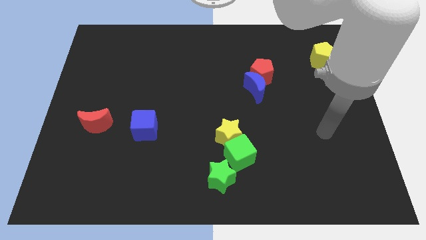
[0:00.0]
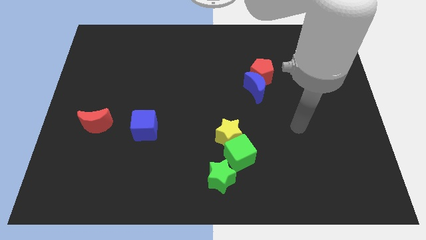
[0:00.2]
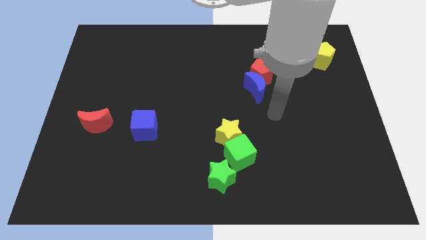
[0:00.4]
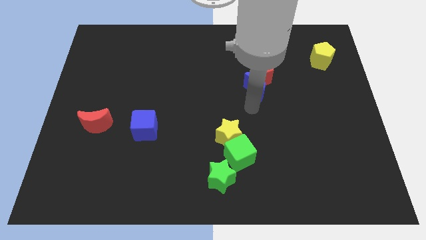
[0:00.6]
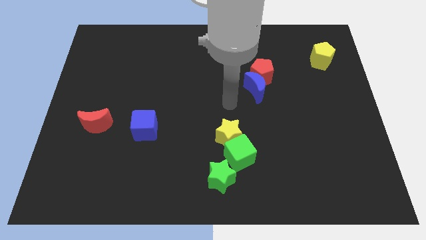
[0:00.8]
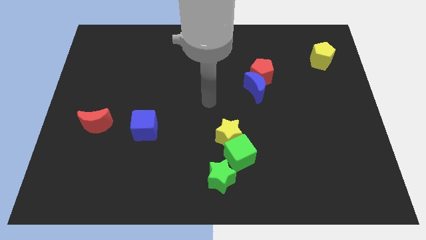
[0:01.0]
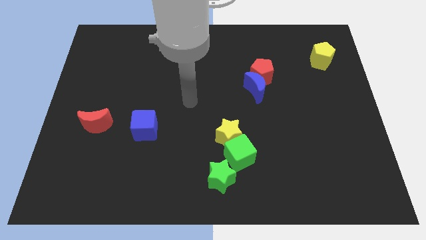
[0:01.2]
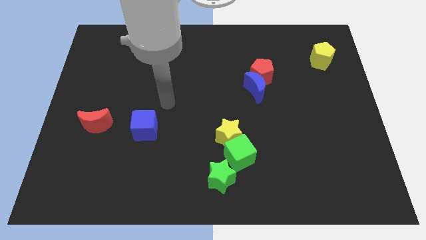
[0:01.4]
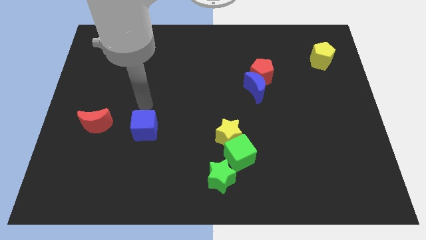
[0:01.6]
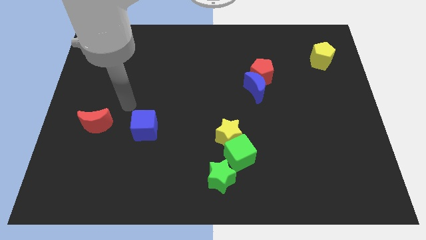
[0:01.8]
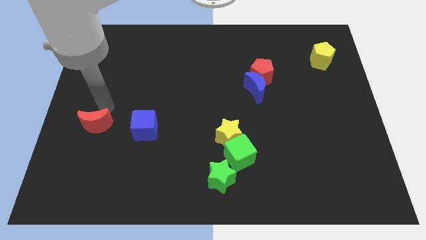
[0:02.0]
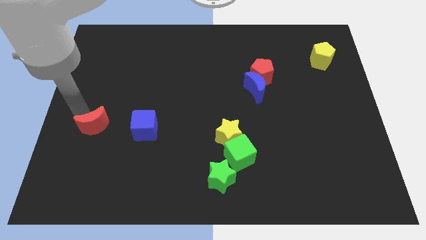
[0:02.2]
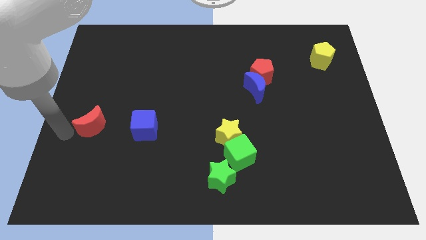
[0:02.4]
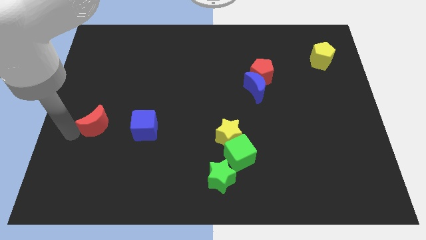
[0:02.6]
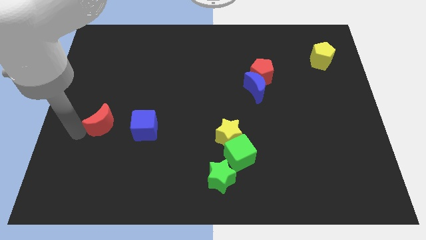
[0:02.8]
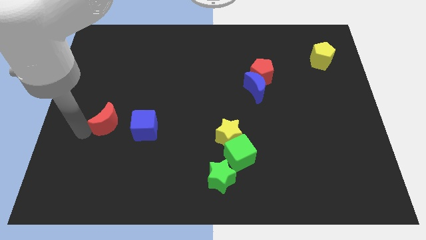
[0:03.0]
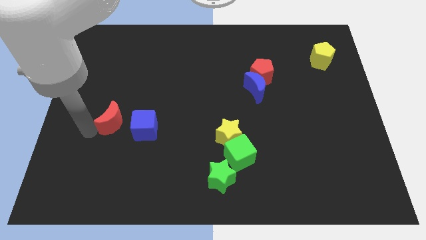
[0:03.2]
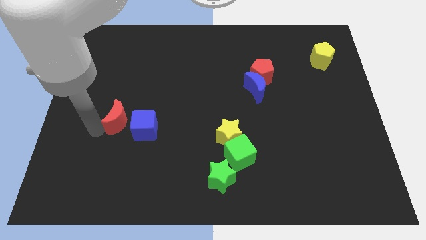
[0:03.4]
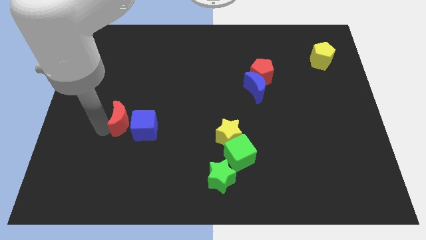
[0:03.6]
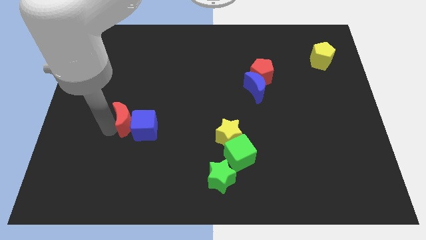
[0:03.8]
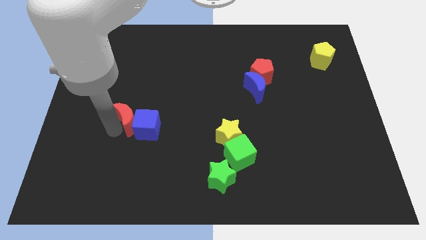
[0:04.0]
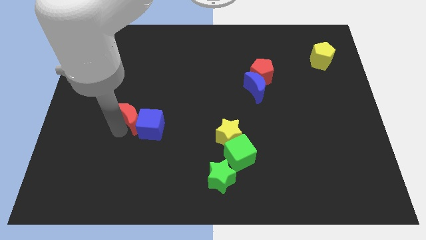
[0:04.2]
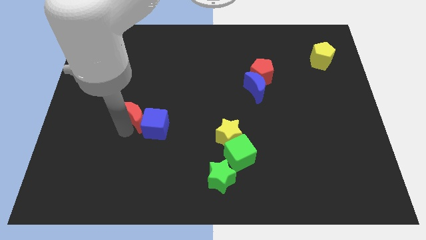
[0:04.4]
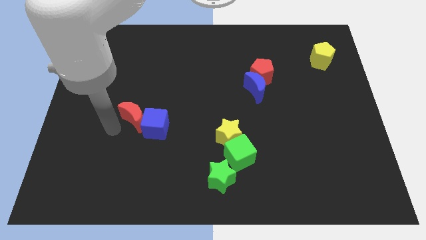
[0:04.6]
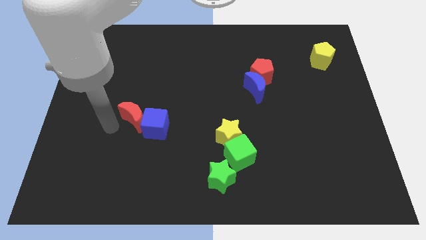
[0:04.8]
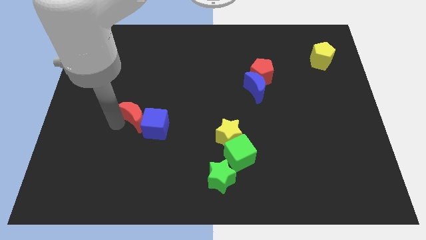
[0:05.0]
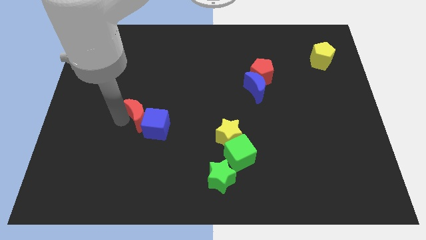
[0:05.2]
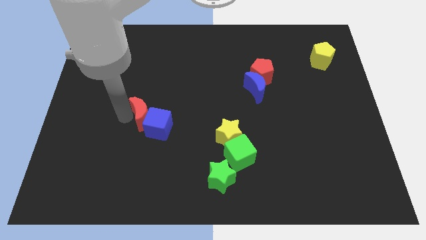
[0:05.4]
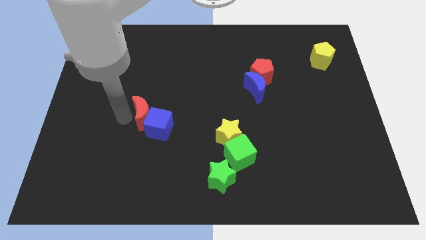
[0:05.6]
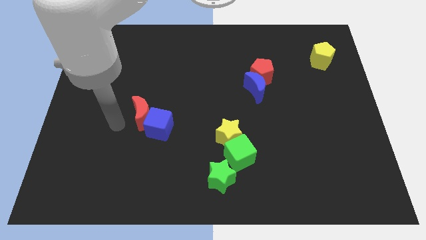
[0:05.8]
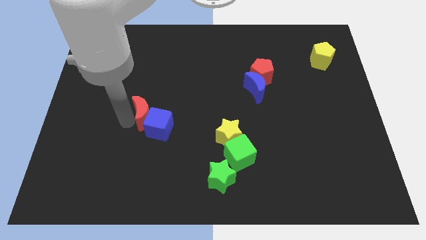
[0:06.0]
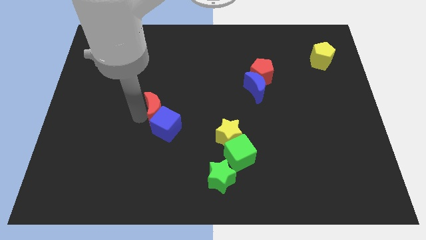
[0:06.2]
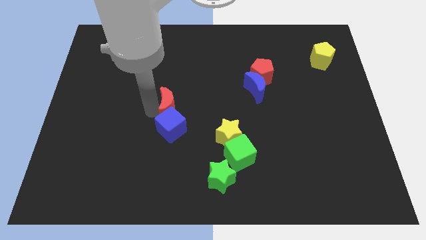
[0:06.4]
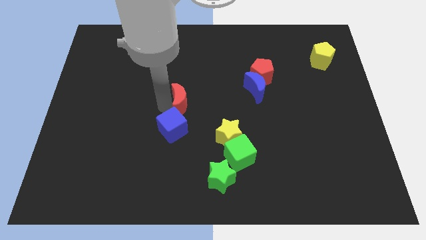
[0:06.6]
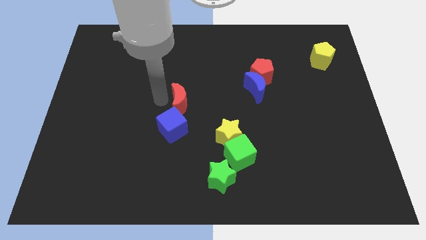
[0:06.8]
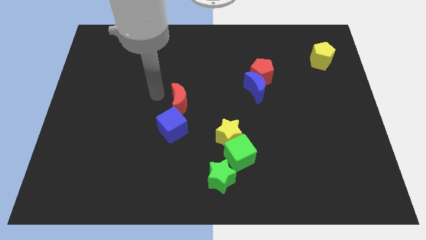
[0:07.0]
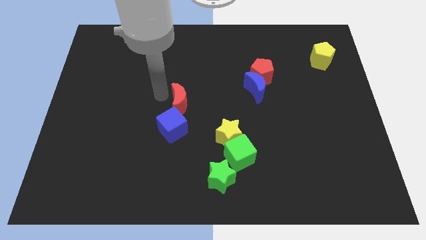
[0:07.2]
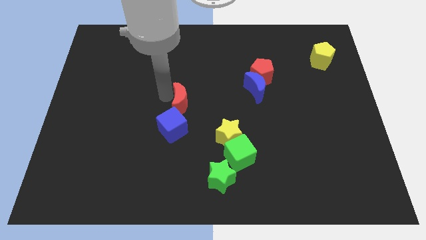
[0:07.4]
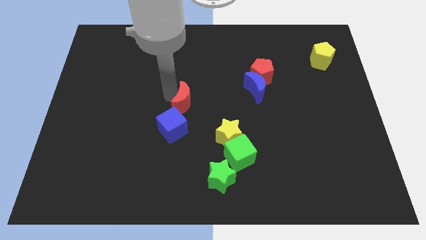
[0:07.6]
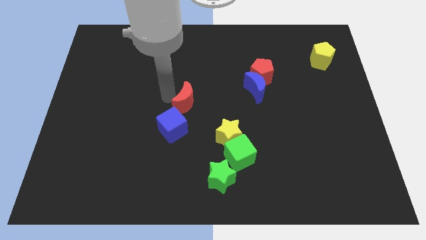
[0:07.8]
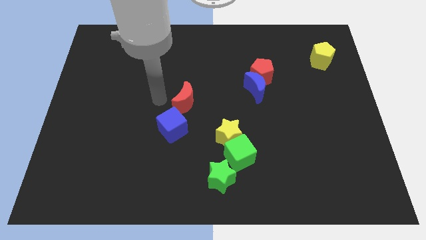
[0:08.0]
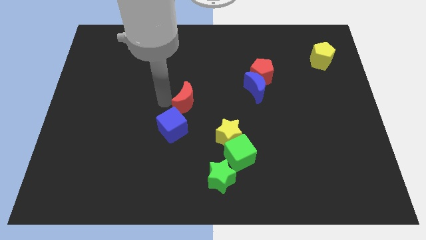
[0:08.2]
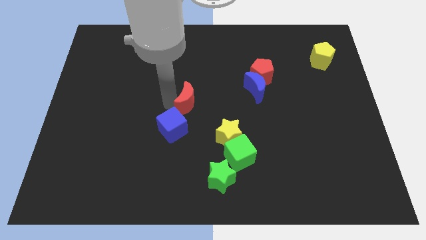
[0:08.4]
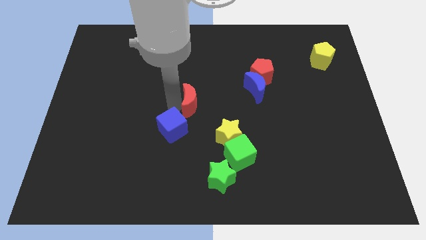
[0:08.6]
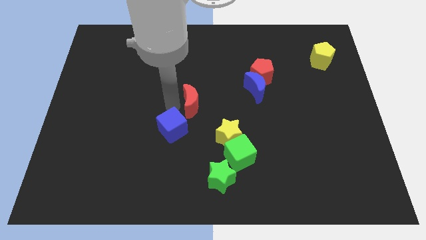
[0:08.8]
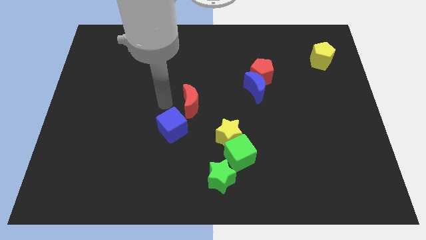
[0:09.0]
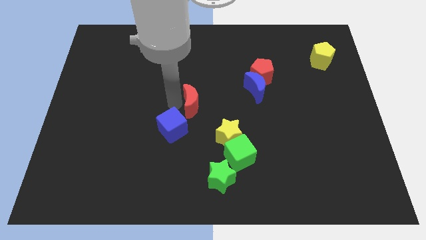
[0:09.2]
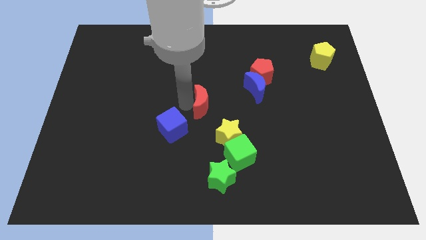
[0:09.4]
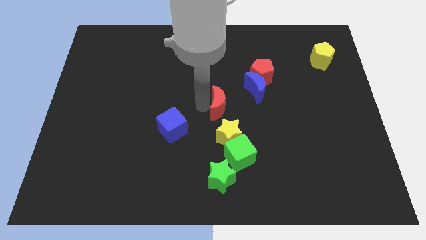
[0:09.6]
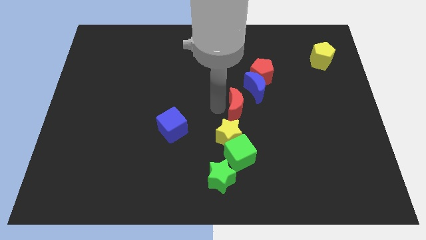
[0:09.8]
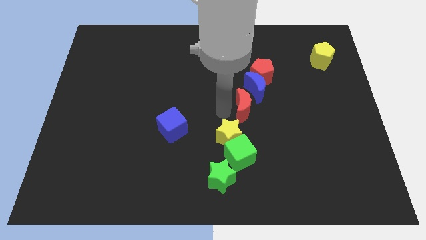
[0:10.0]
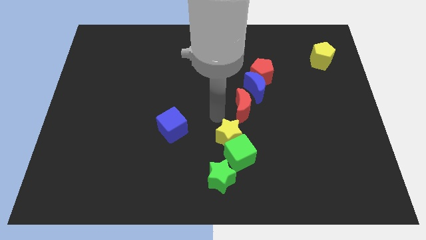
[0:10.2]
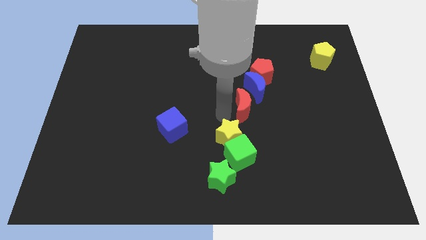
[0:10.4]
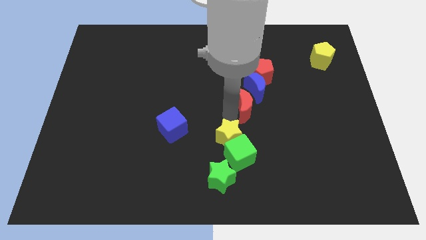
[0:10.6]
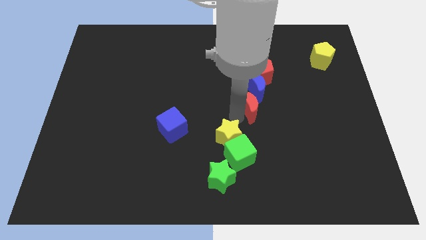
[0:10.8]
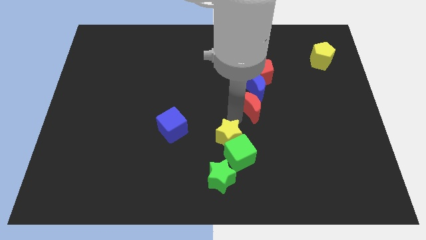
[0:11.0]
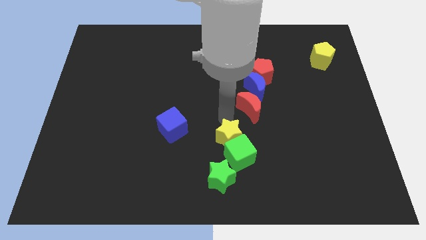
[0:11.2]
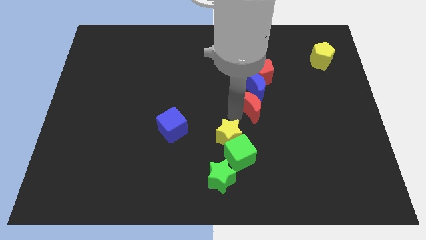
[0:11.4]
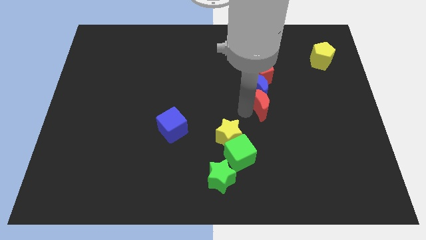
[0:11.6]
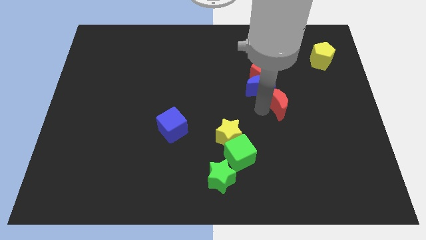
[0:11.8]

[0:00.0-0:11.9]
put the red moon to the bottom right side of the red pentagon
